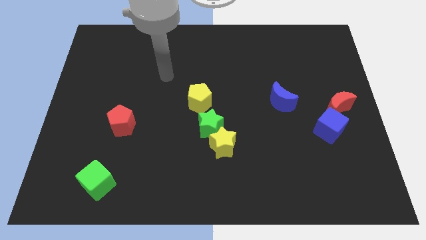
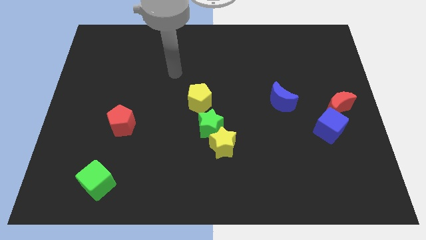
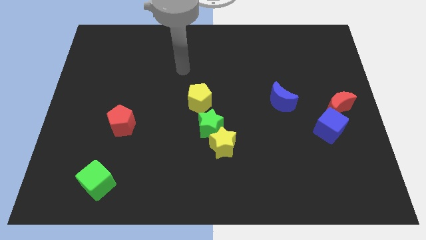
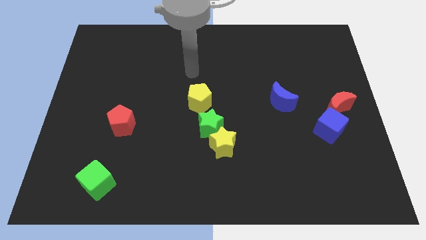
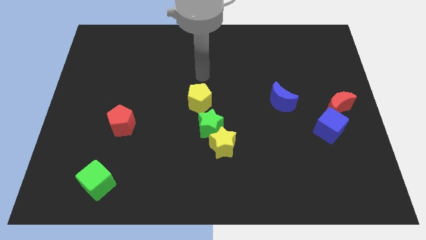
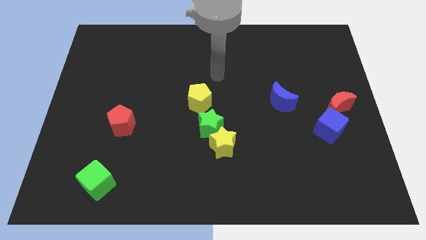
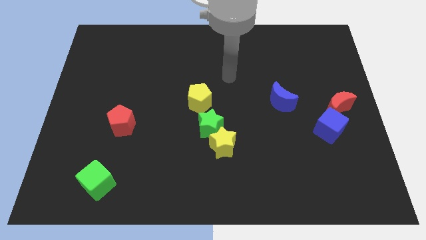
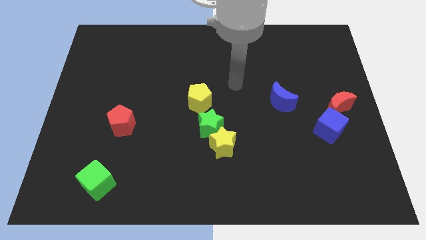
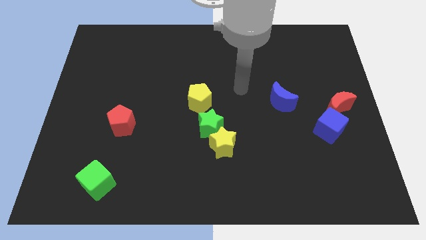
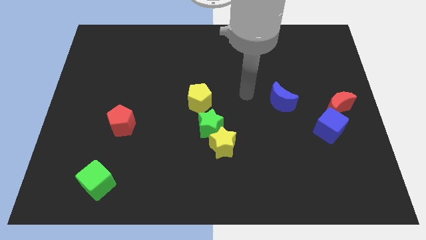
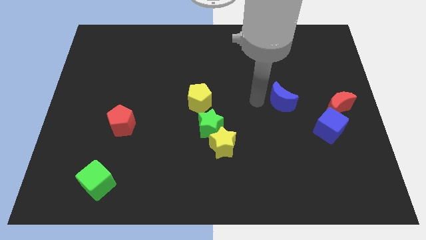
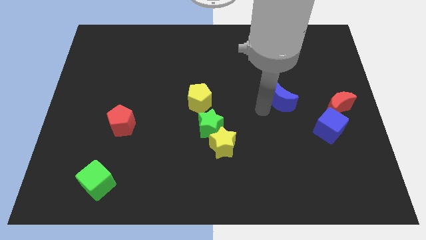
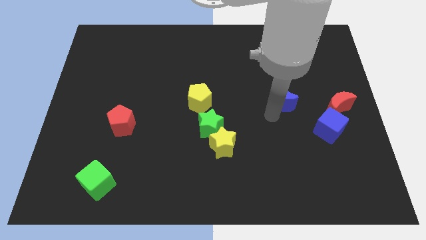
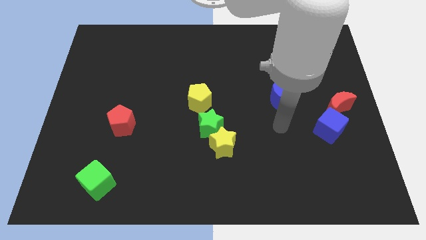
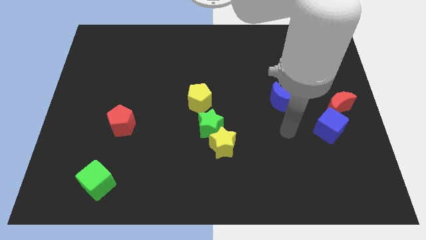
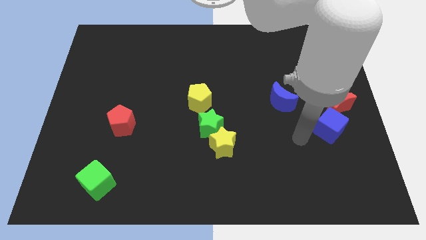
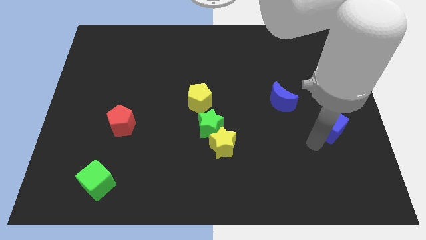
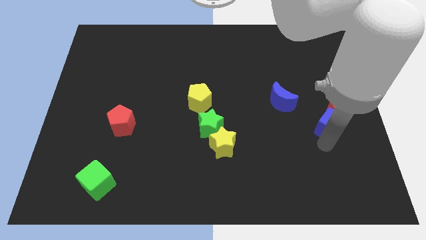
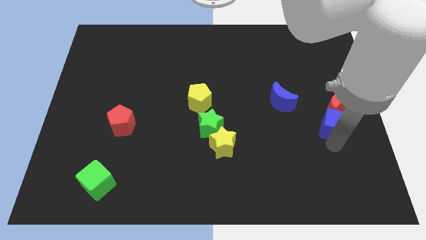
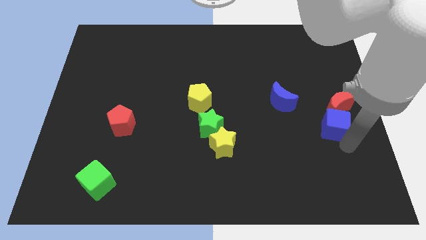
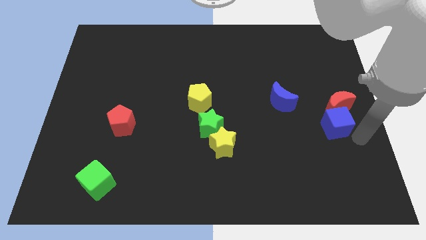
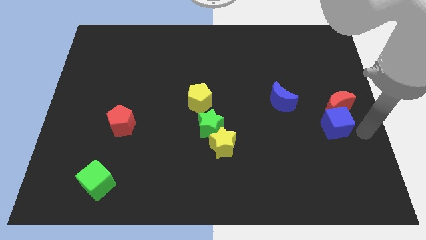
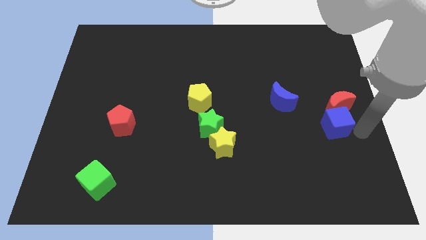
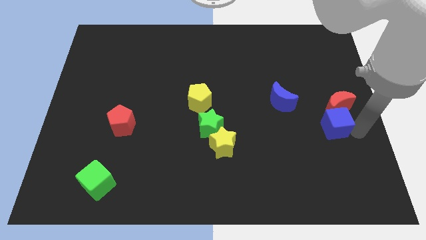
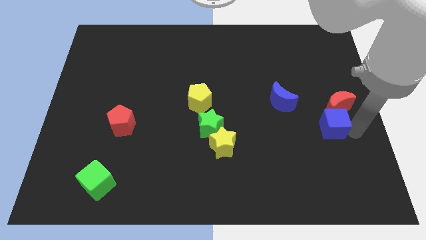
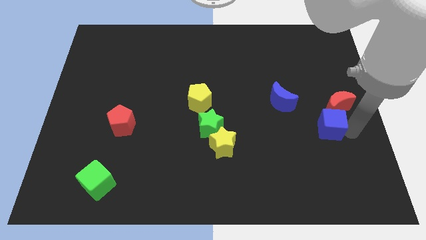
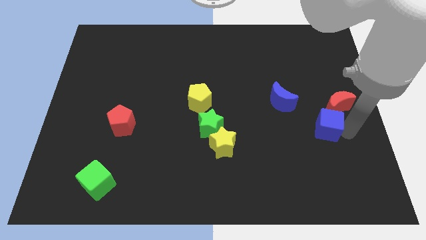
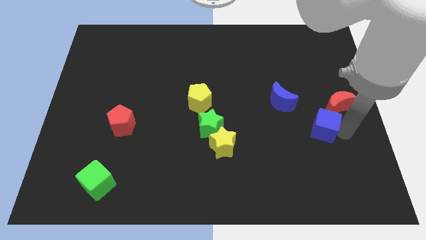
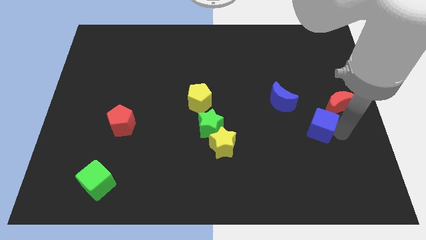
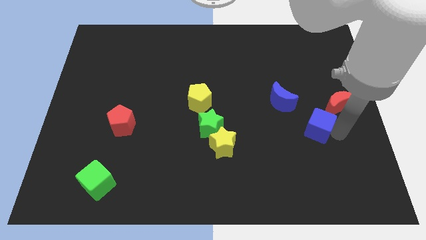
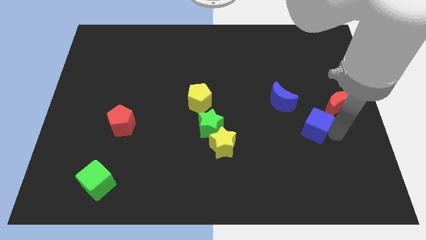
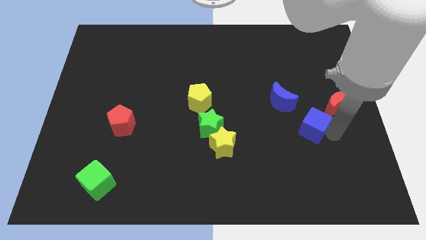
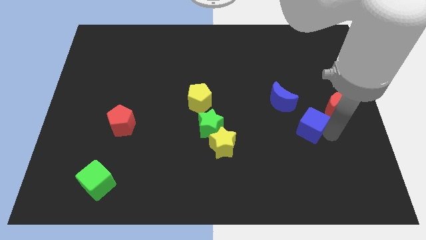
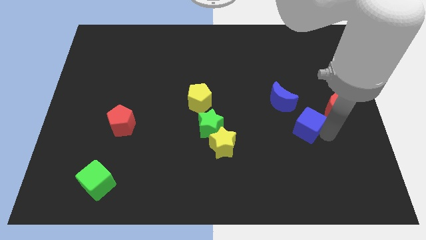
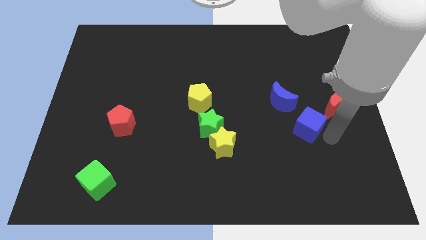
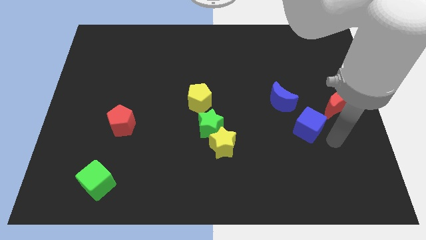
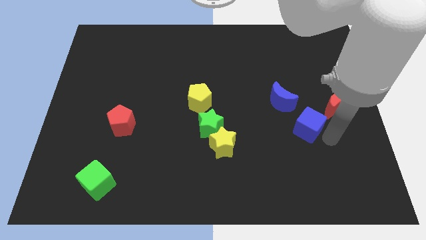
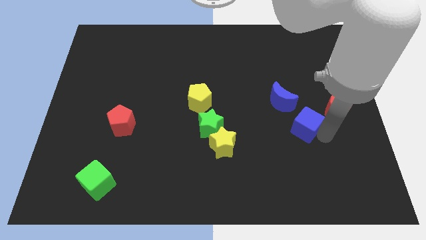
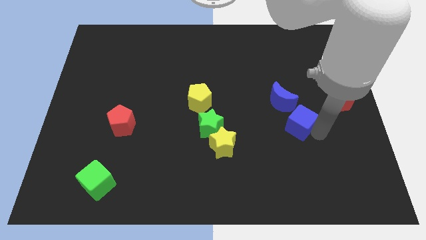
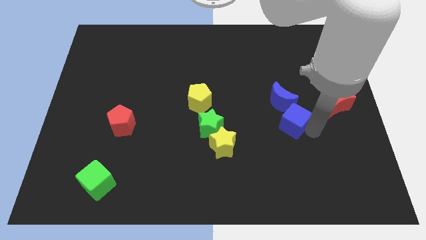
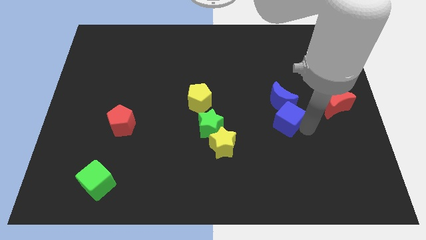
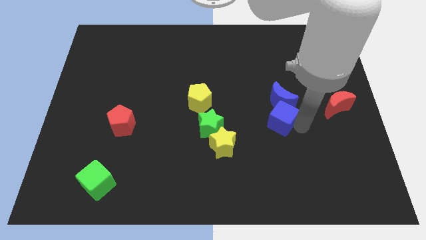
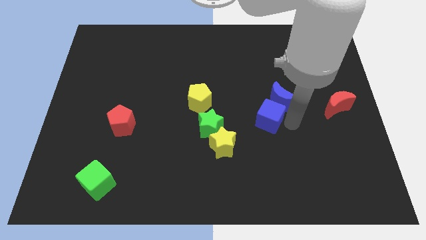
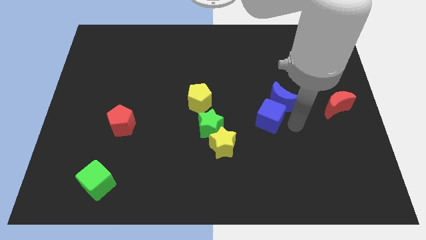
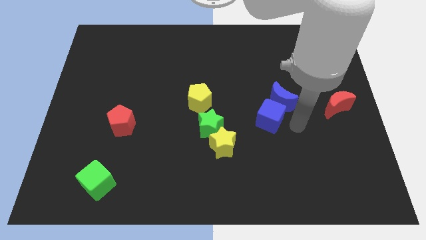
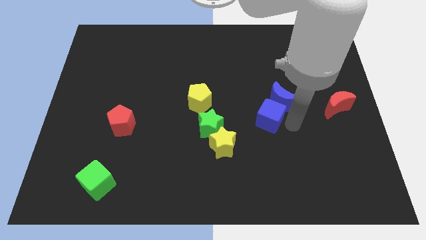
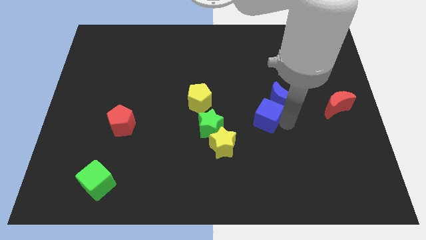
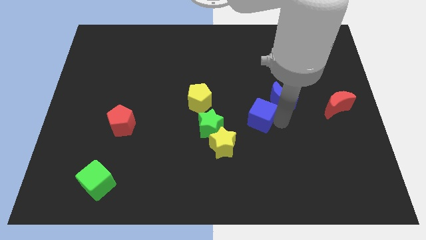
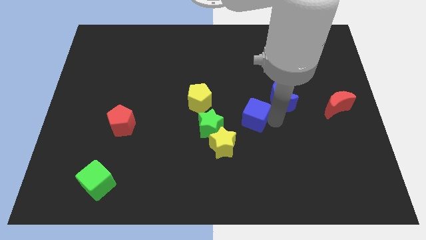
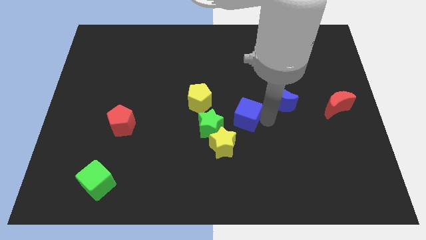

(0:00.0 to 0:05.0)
slide the blue cube diagonally up and to the right of the green star

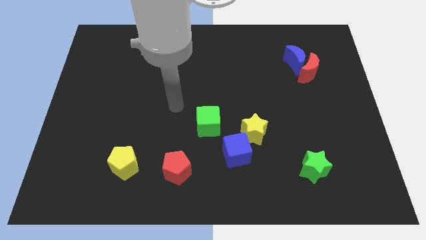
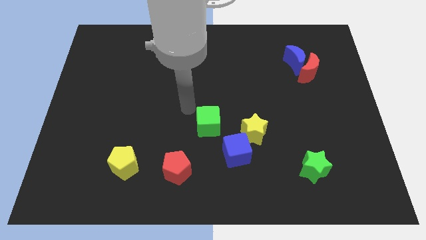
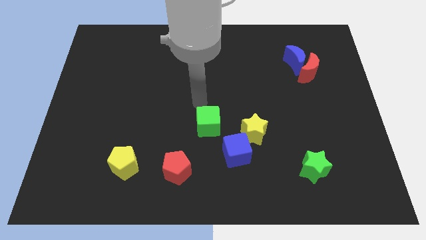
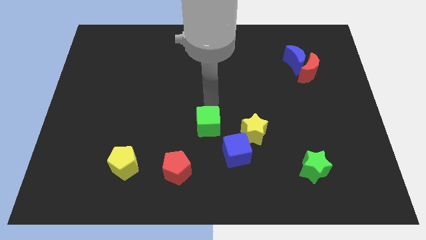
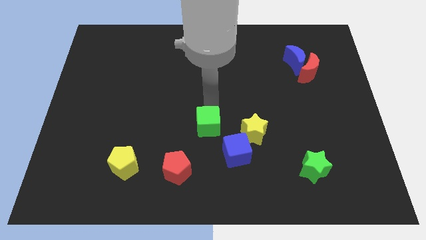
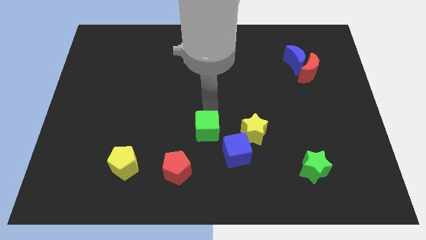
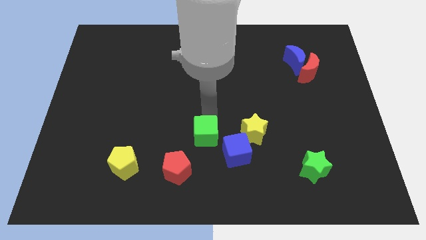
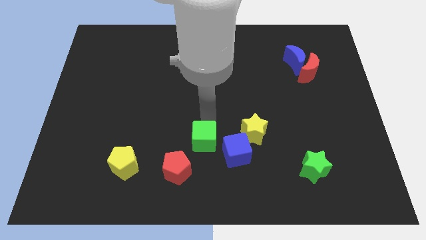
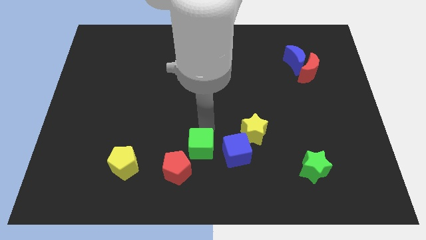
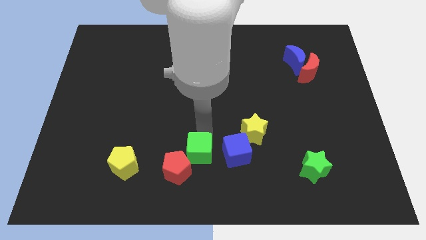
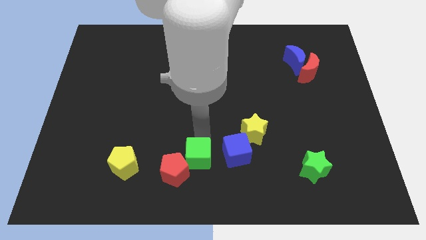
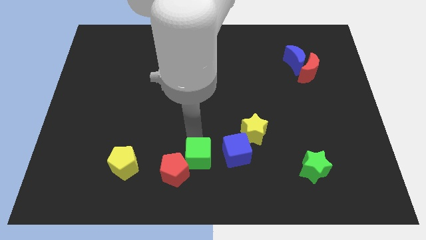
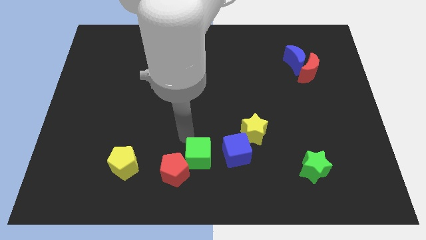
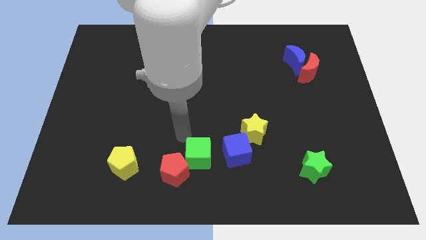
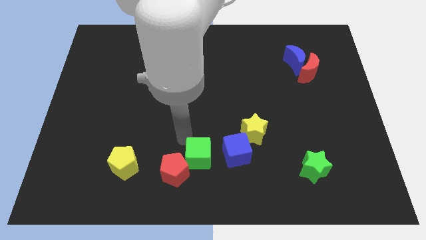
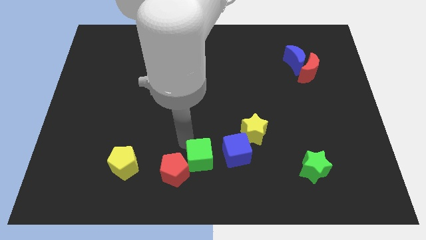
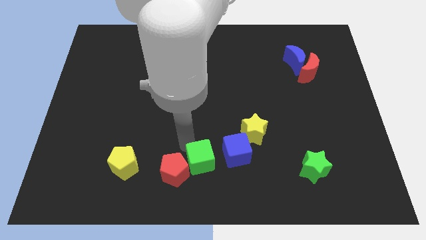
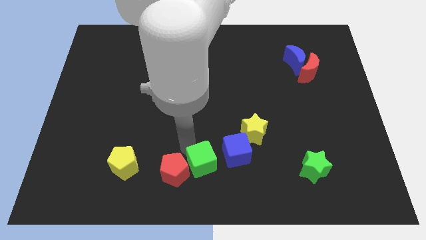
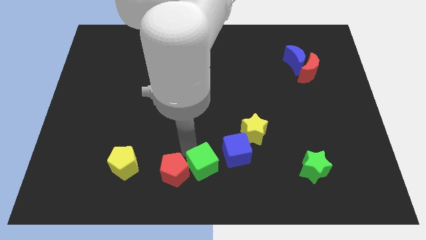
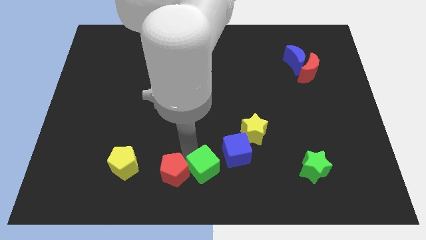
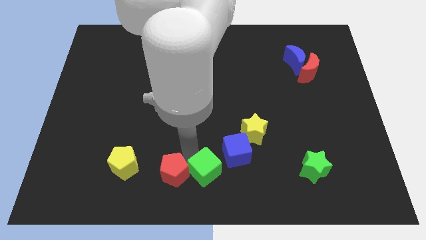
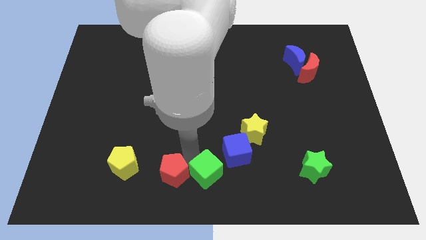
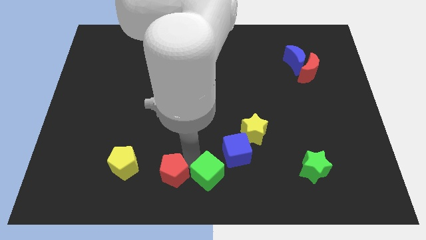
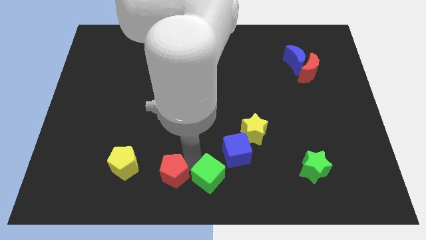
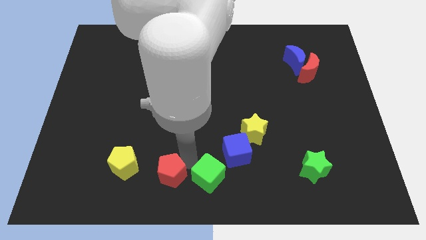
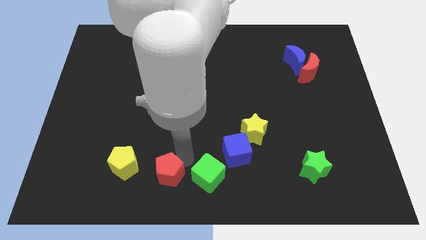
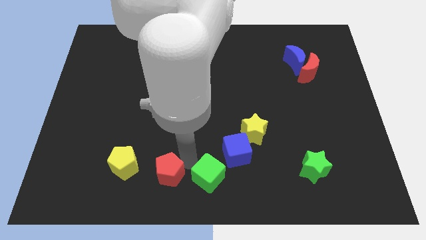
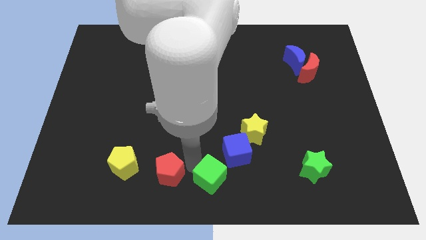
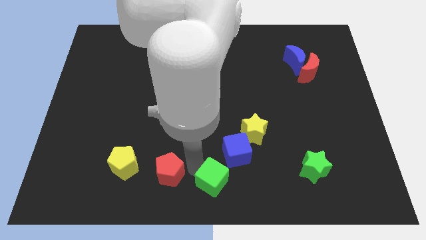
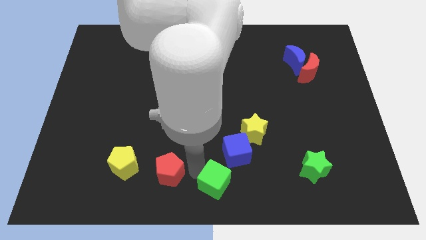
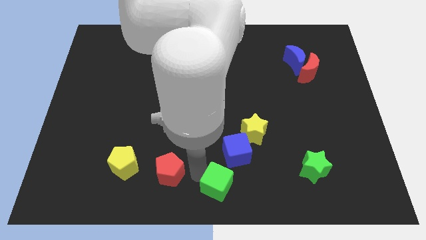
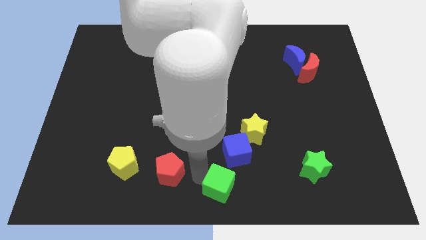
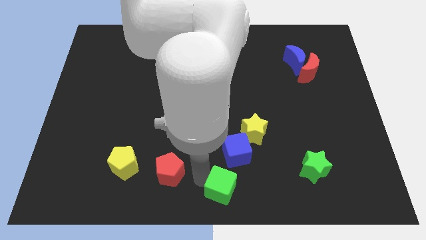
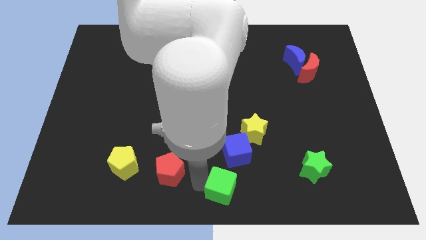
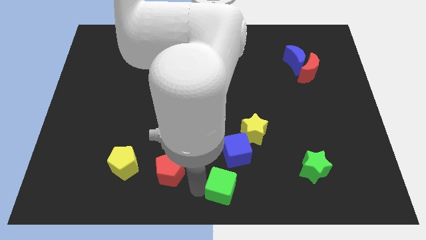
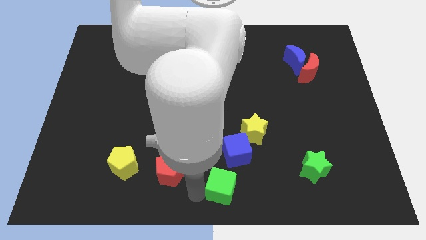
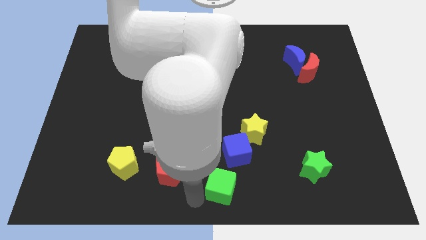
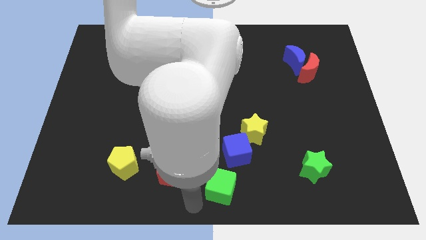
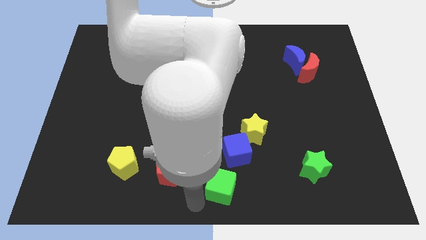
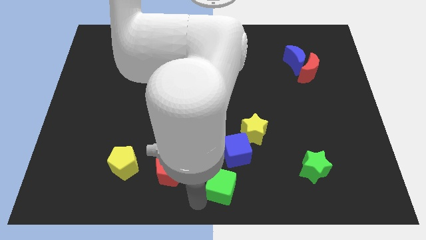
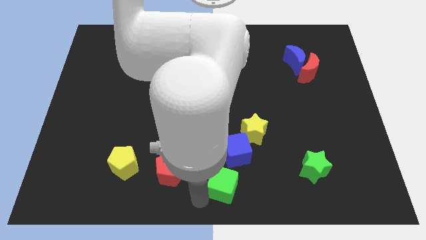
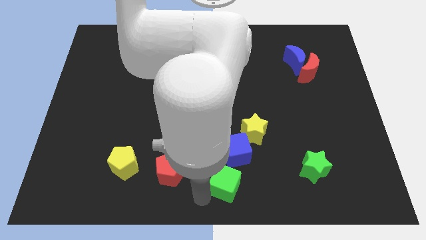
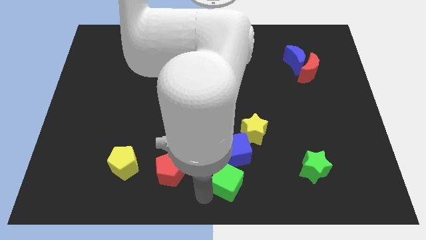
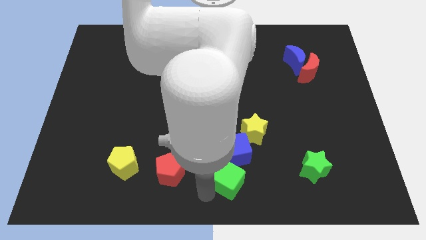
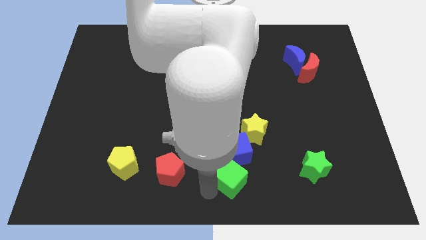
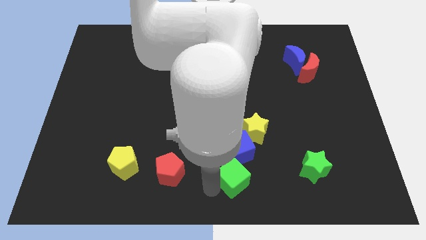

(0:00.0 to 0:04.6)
put the green cube below the yellow star
